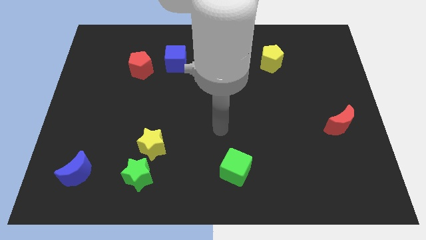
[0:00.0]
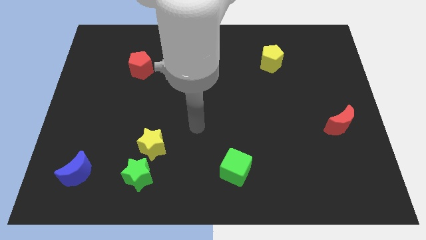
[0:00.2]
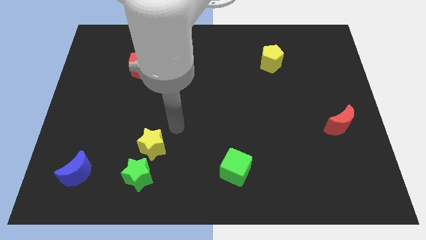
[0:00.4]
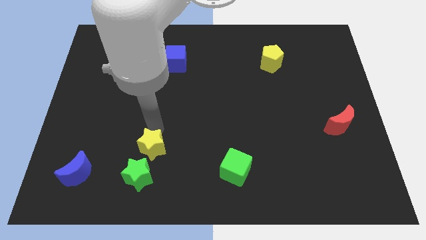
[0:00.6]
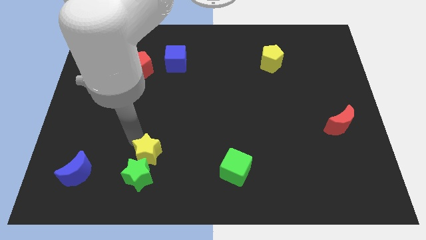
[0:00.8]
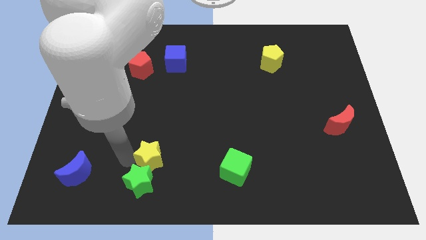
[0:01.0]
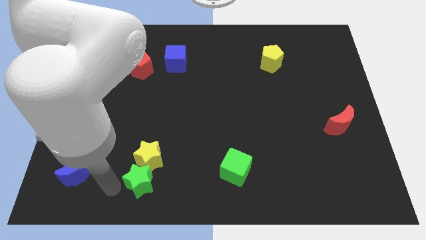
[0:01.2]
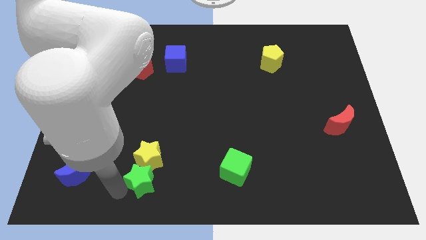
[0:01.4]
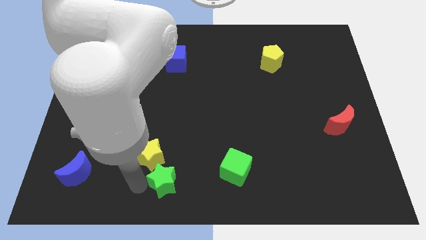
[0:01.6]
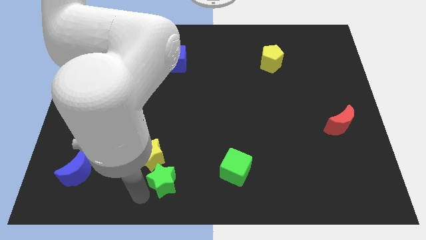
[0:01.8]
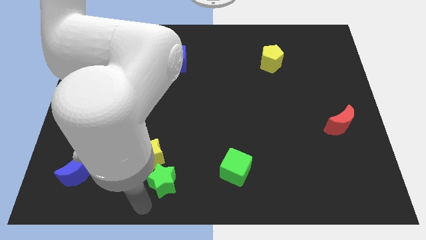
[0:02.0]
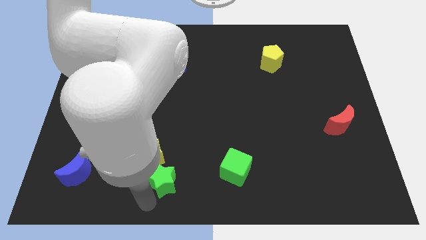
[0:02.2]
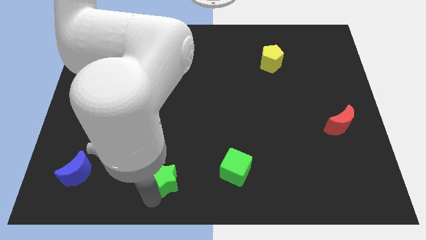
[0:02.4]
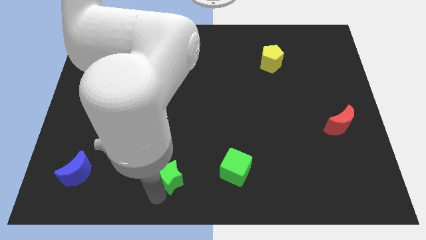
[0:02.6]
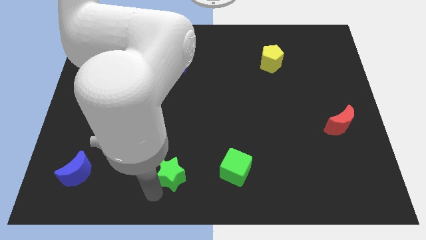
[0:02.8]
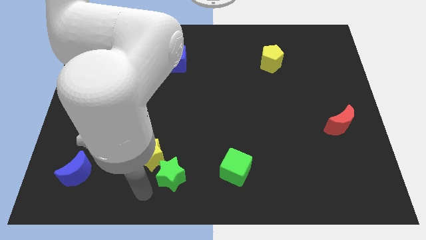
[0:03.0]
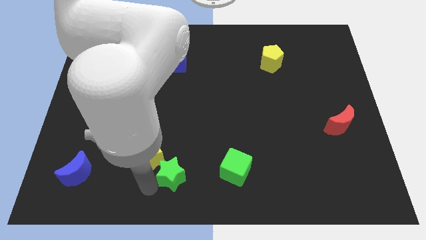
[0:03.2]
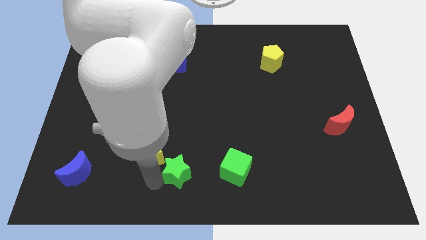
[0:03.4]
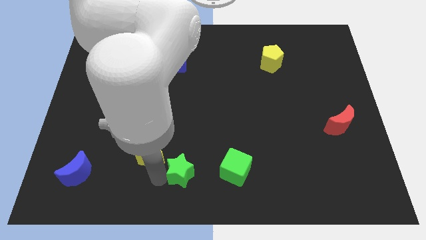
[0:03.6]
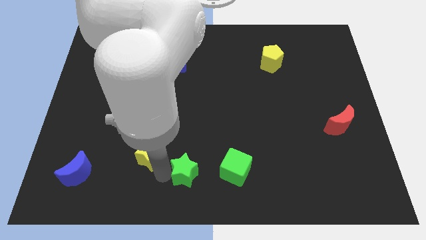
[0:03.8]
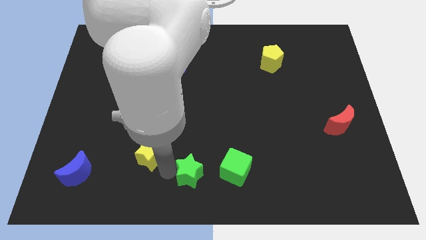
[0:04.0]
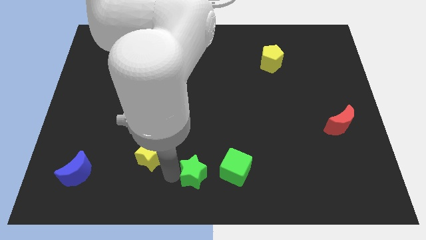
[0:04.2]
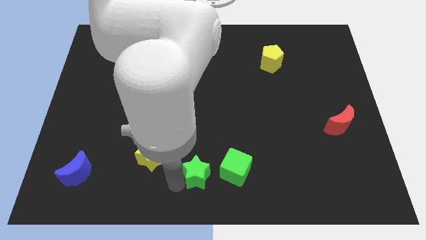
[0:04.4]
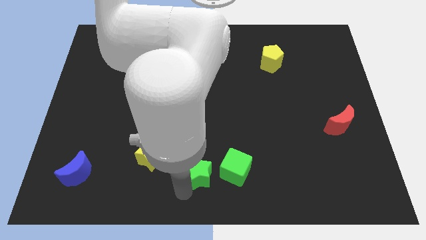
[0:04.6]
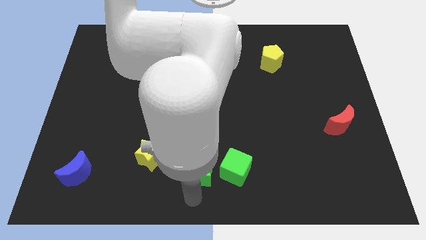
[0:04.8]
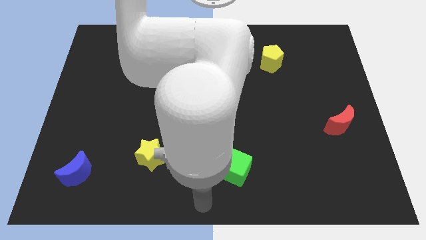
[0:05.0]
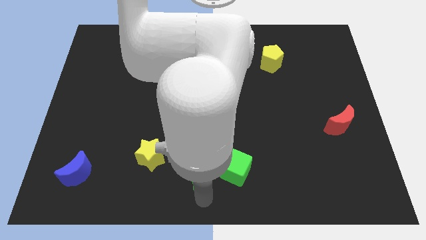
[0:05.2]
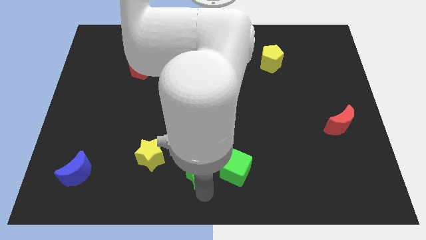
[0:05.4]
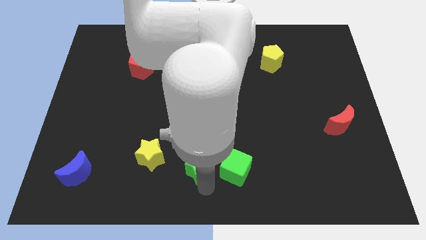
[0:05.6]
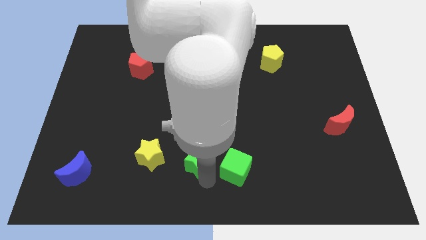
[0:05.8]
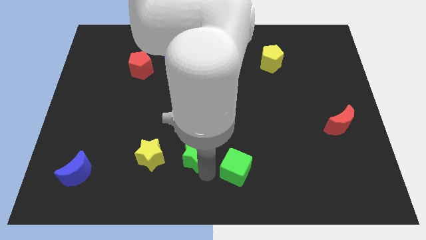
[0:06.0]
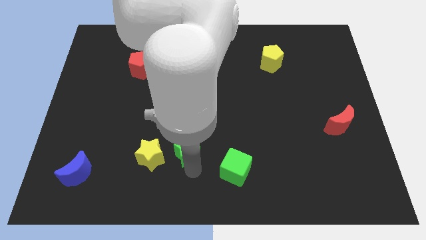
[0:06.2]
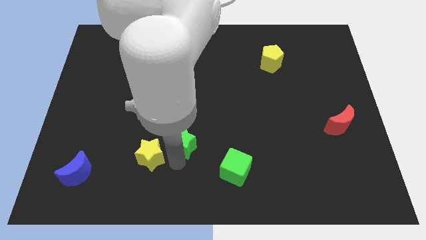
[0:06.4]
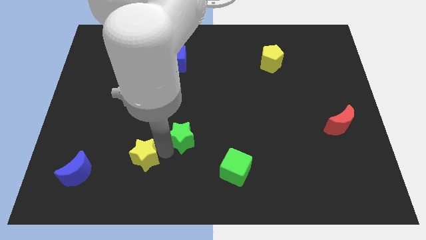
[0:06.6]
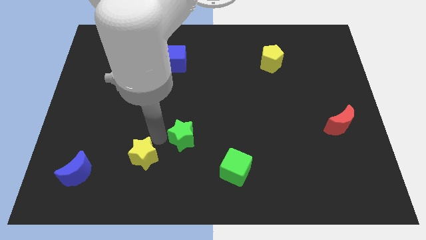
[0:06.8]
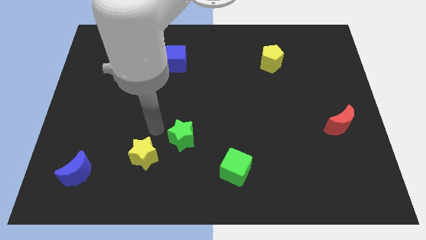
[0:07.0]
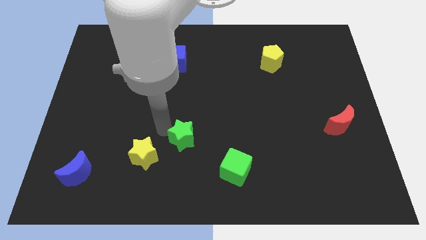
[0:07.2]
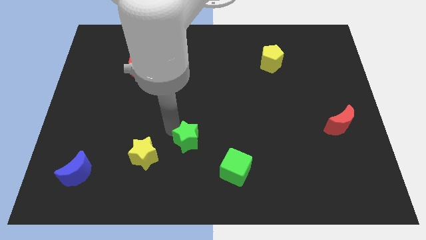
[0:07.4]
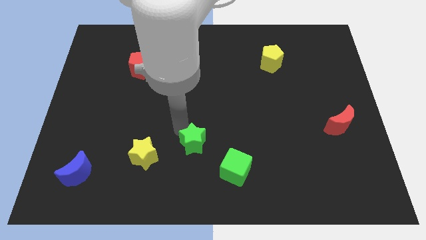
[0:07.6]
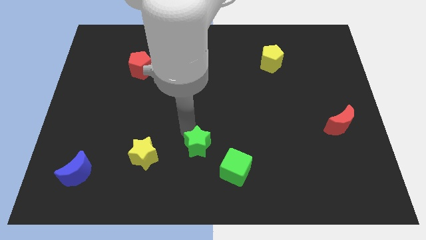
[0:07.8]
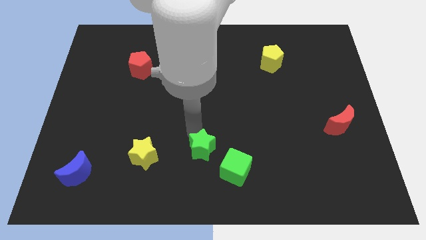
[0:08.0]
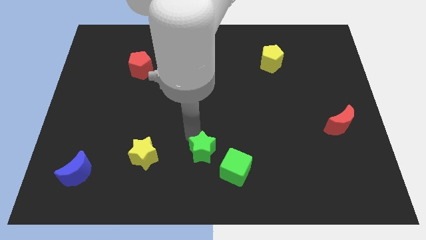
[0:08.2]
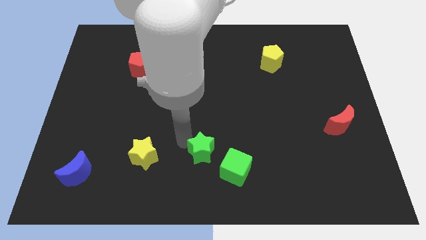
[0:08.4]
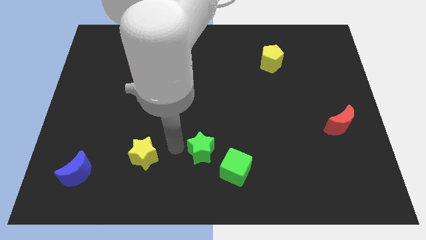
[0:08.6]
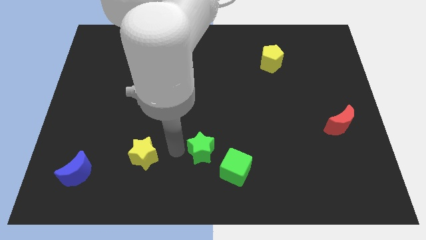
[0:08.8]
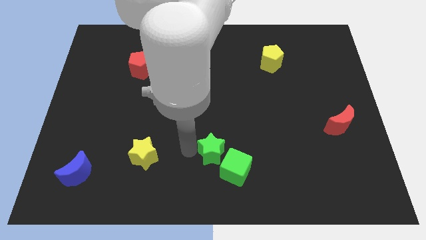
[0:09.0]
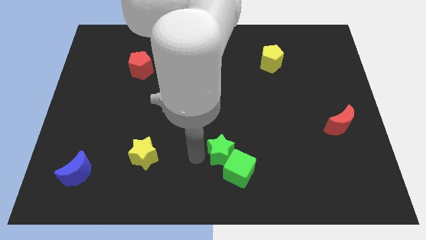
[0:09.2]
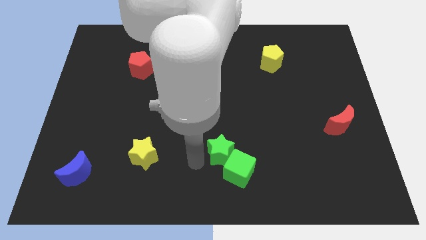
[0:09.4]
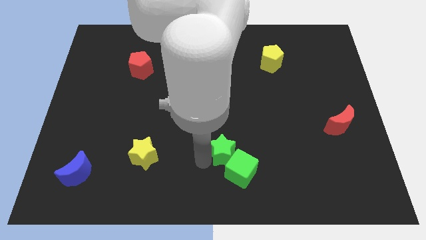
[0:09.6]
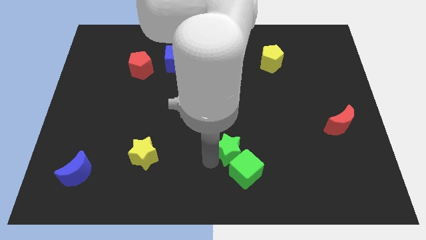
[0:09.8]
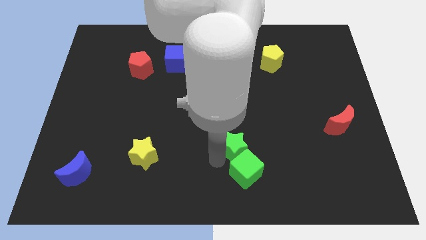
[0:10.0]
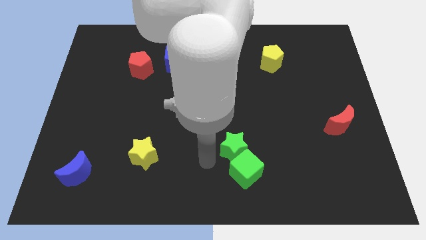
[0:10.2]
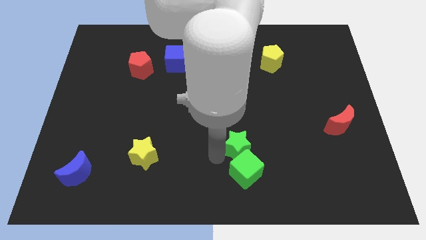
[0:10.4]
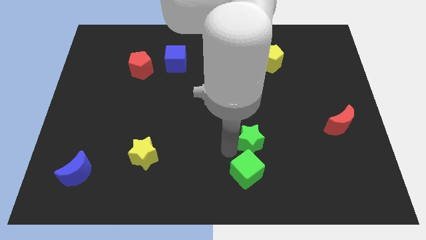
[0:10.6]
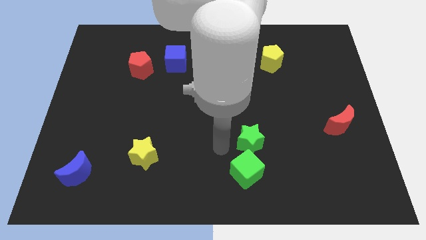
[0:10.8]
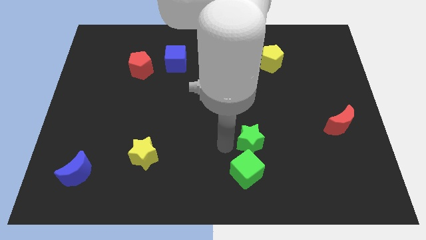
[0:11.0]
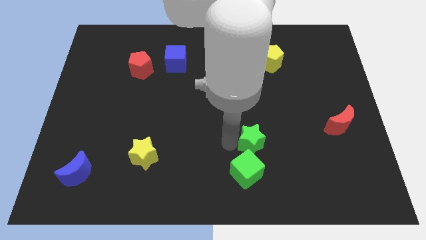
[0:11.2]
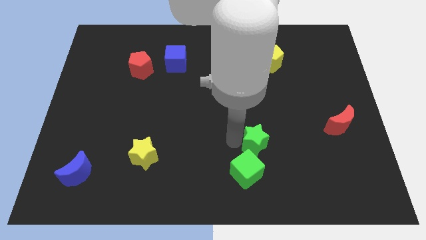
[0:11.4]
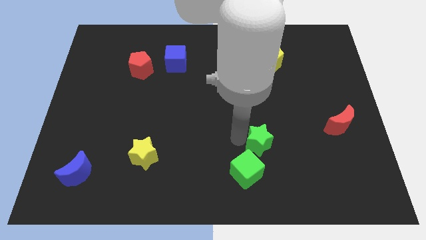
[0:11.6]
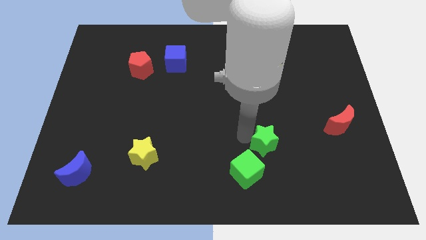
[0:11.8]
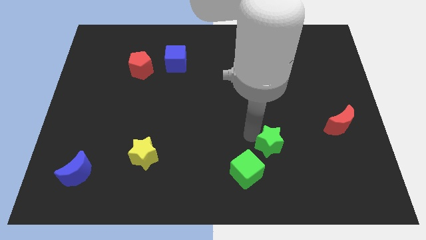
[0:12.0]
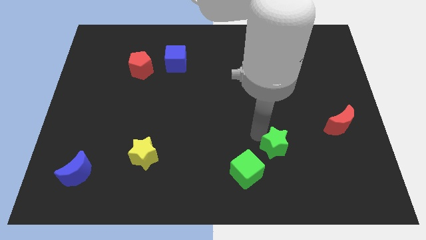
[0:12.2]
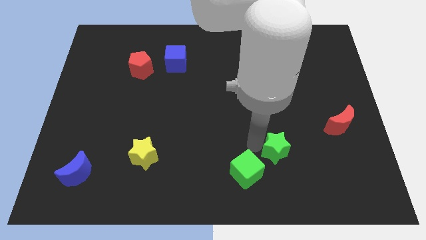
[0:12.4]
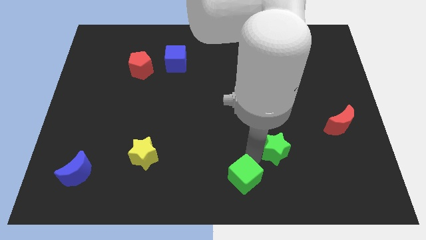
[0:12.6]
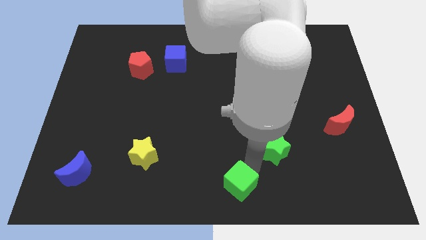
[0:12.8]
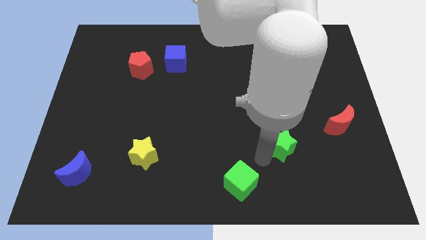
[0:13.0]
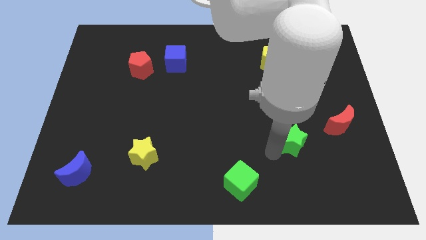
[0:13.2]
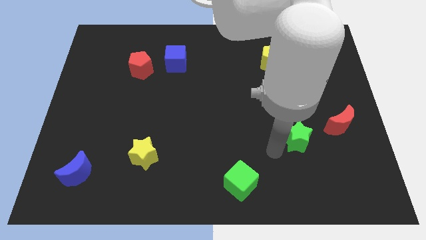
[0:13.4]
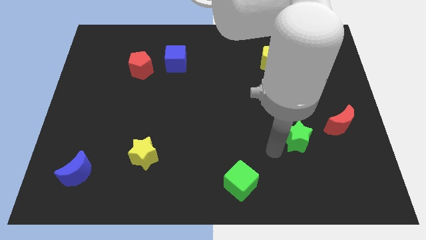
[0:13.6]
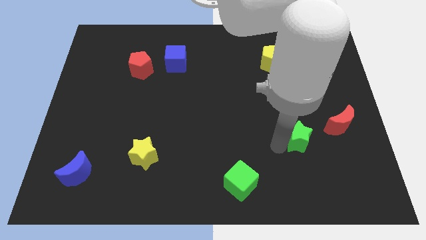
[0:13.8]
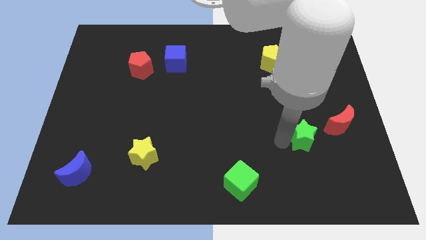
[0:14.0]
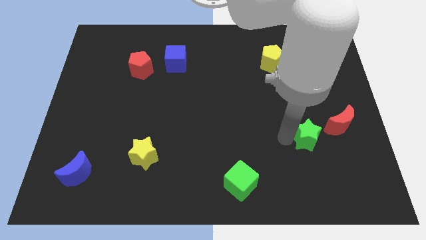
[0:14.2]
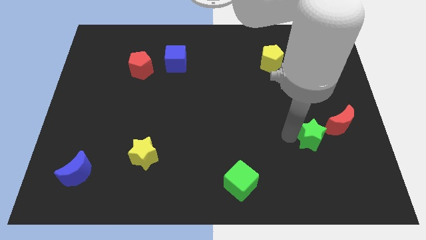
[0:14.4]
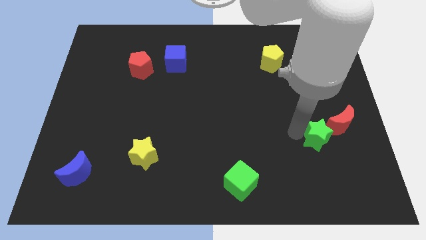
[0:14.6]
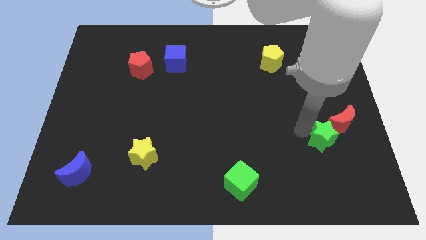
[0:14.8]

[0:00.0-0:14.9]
move the green star next to the red moon
